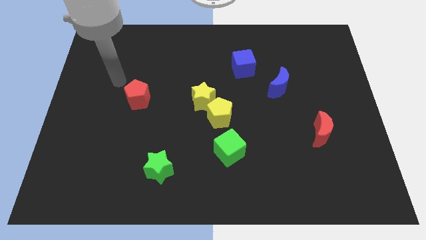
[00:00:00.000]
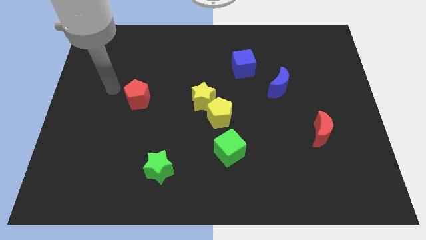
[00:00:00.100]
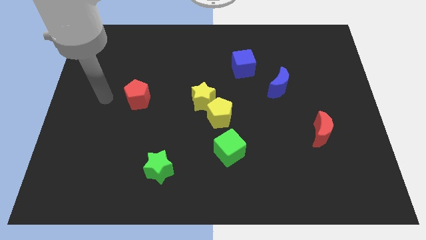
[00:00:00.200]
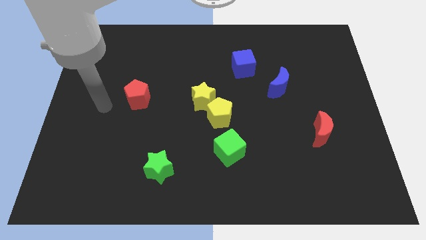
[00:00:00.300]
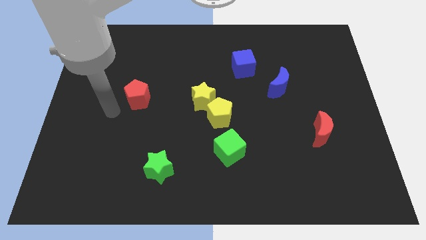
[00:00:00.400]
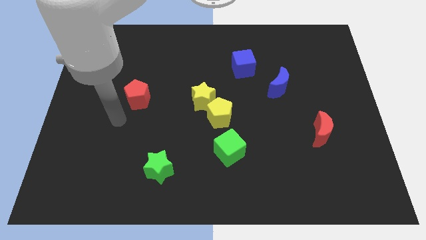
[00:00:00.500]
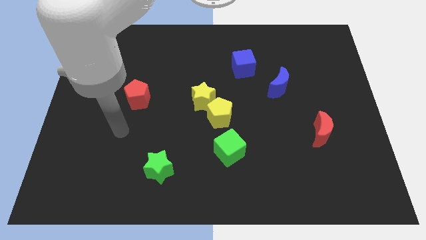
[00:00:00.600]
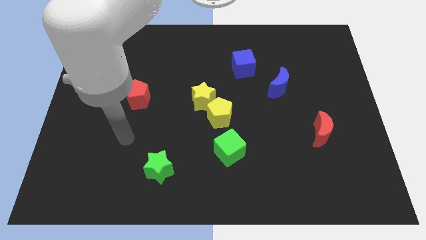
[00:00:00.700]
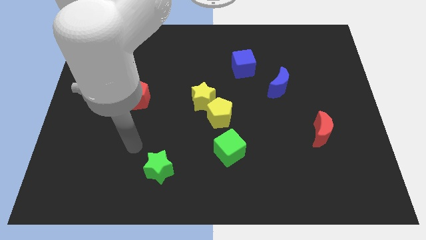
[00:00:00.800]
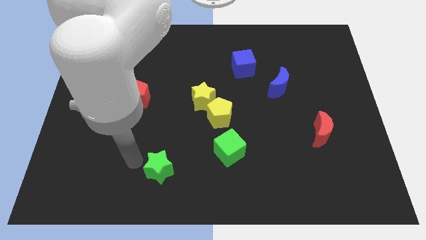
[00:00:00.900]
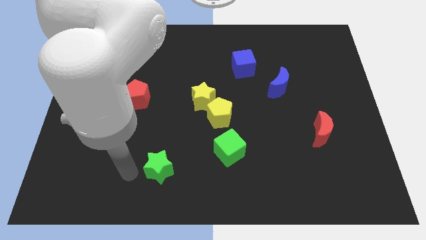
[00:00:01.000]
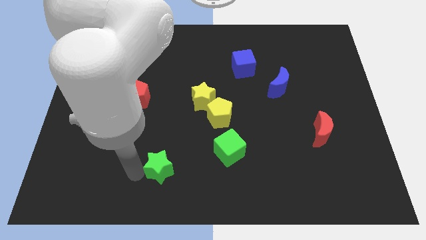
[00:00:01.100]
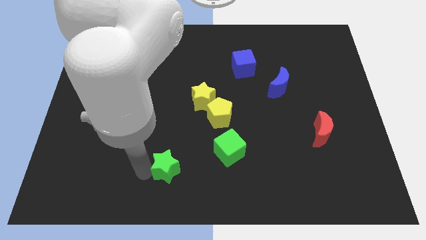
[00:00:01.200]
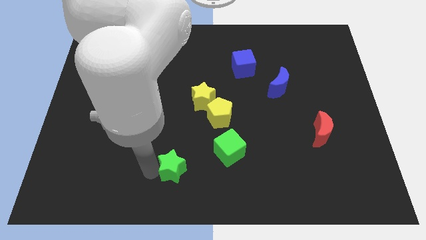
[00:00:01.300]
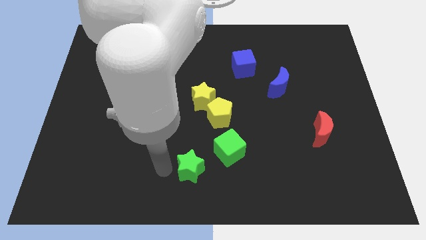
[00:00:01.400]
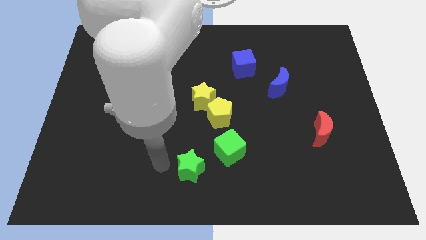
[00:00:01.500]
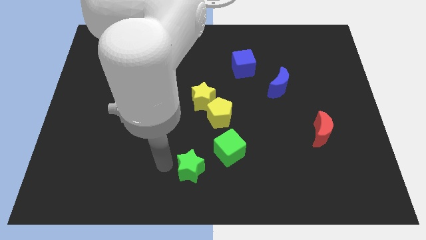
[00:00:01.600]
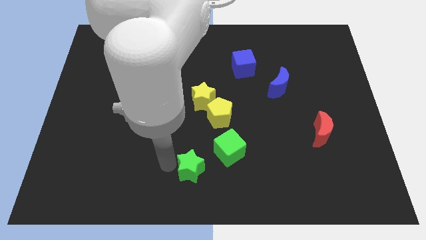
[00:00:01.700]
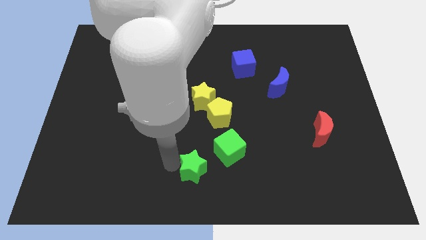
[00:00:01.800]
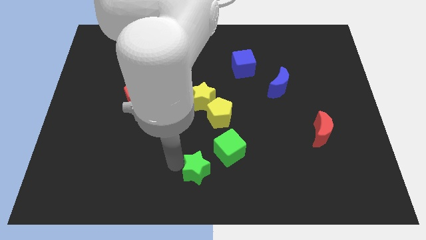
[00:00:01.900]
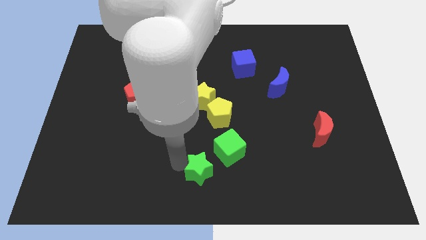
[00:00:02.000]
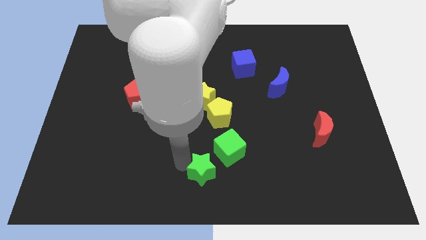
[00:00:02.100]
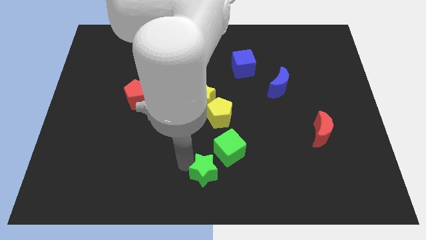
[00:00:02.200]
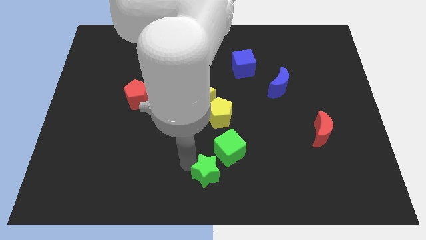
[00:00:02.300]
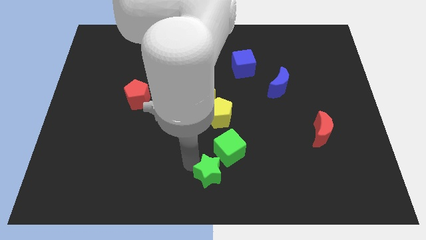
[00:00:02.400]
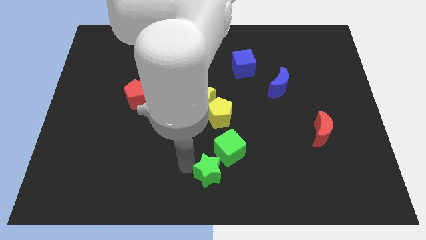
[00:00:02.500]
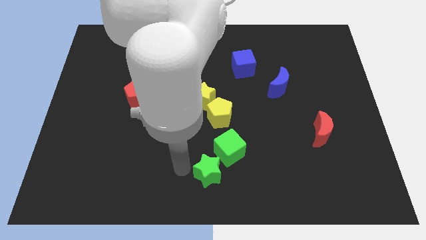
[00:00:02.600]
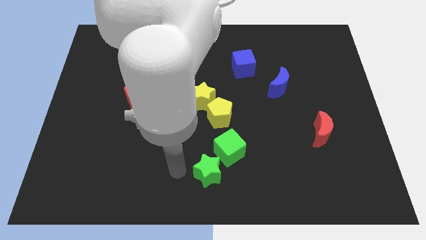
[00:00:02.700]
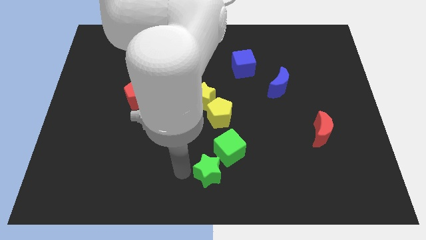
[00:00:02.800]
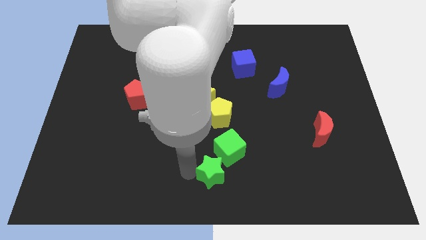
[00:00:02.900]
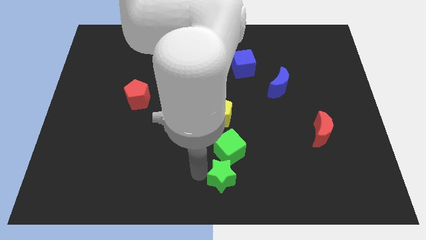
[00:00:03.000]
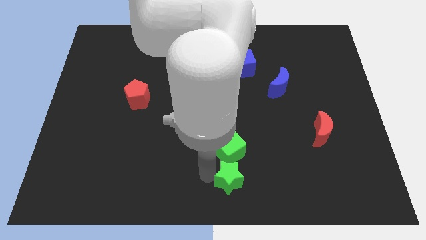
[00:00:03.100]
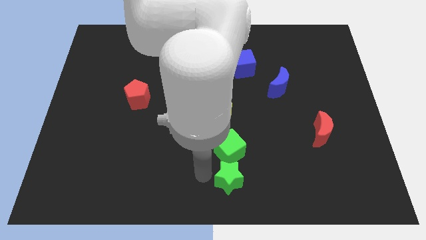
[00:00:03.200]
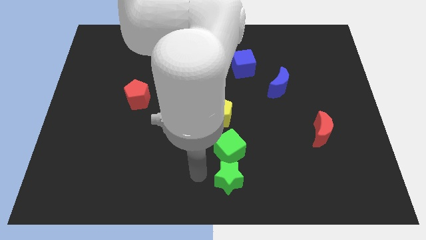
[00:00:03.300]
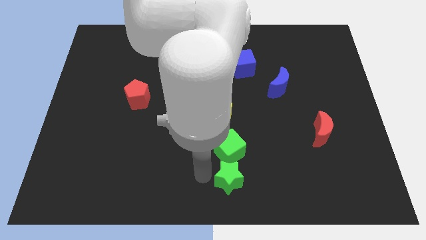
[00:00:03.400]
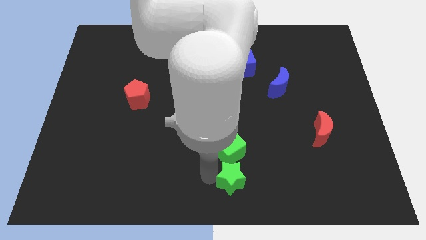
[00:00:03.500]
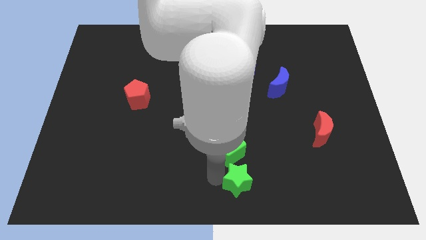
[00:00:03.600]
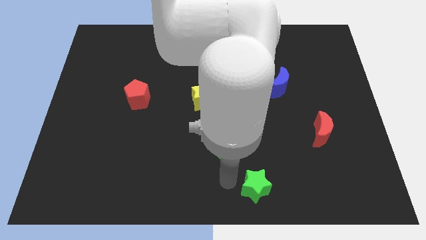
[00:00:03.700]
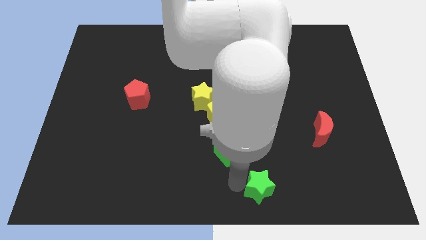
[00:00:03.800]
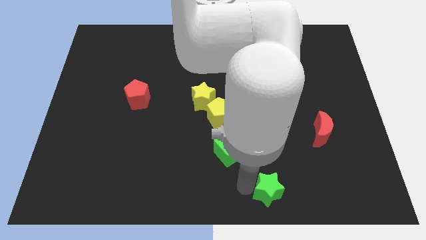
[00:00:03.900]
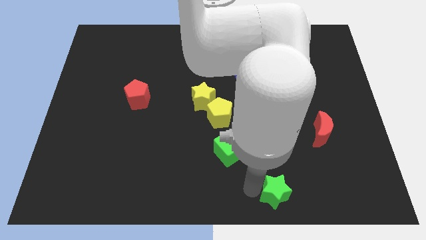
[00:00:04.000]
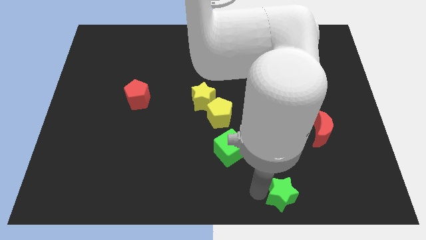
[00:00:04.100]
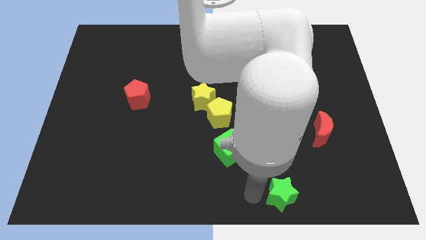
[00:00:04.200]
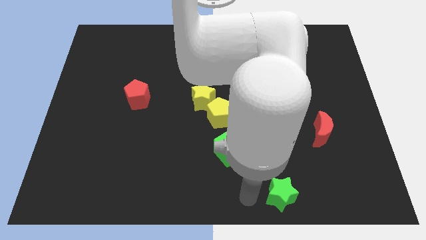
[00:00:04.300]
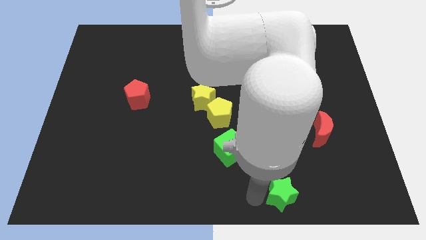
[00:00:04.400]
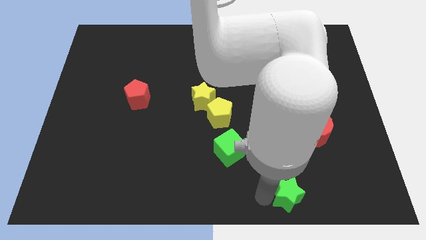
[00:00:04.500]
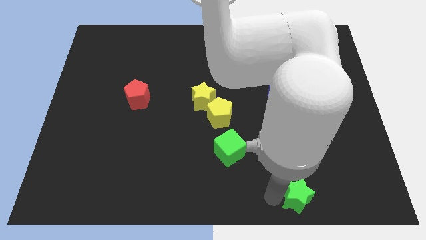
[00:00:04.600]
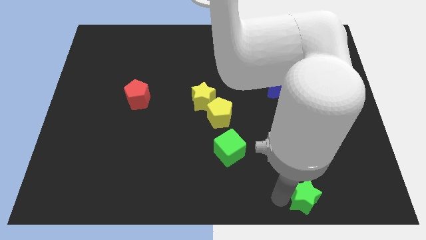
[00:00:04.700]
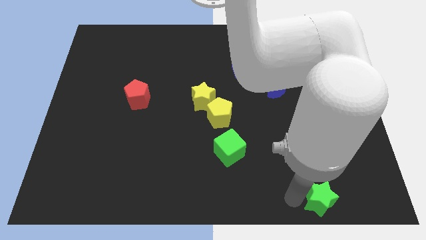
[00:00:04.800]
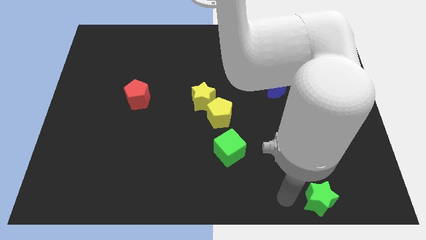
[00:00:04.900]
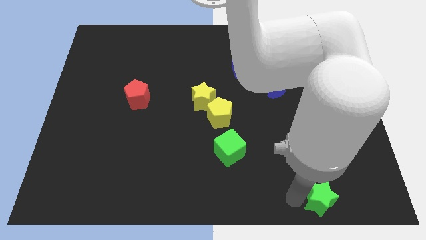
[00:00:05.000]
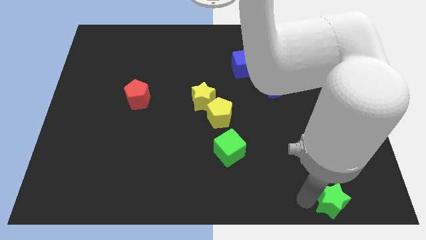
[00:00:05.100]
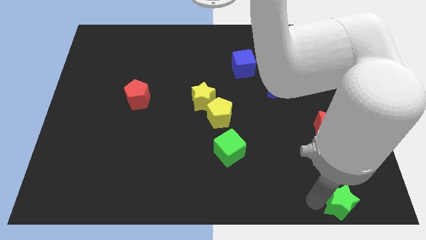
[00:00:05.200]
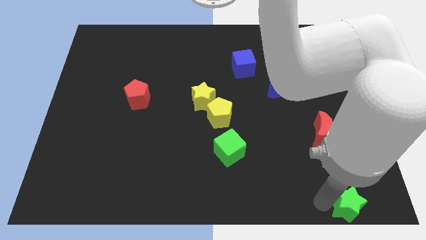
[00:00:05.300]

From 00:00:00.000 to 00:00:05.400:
push the green star to the lower right corner

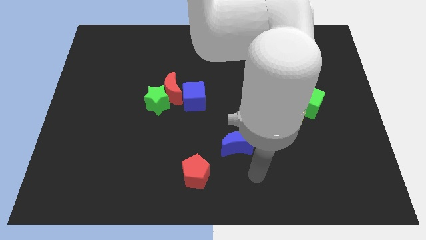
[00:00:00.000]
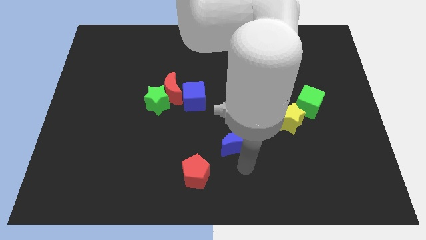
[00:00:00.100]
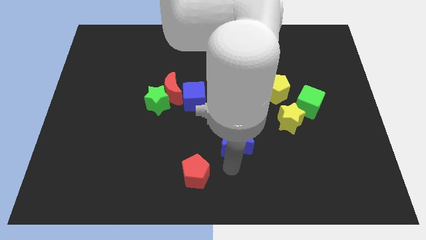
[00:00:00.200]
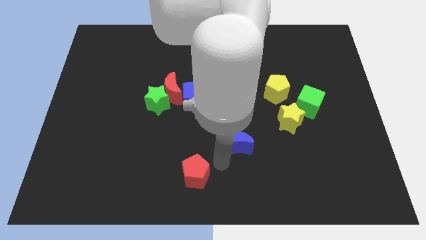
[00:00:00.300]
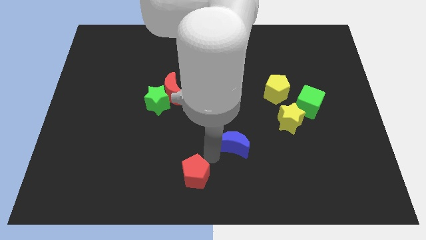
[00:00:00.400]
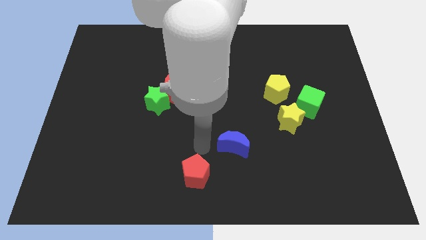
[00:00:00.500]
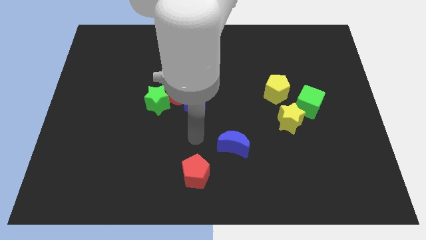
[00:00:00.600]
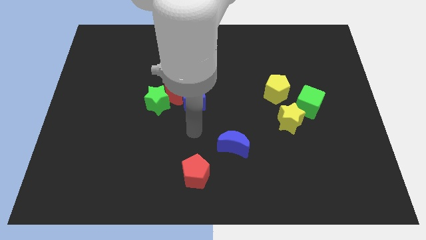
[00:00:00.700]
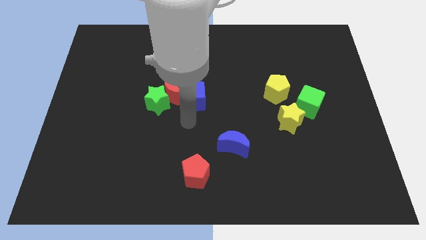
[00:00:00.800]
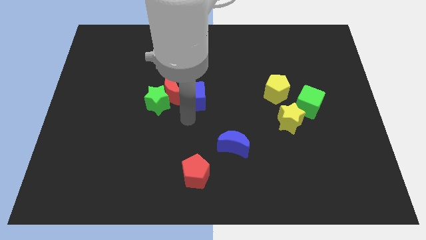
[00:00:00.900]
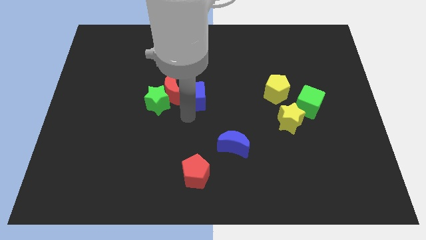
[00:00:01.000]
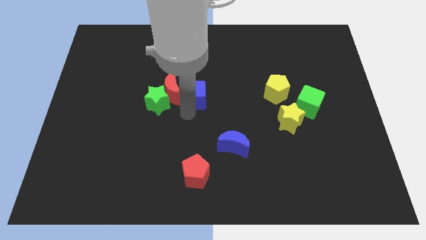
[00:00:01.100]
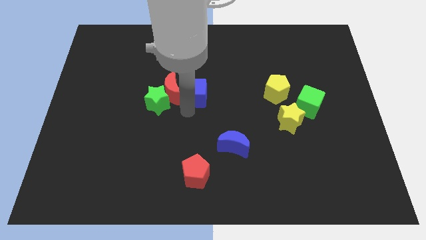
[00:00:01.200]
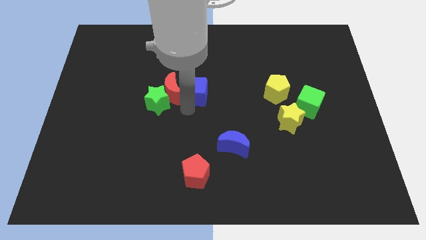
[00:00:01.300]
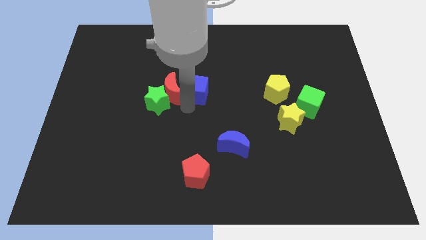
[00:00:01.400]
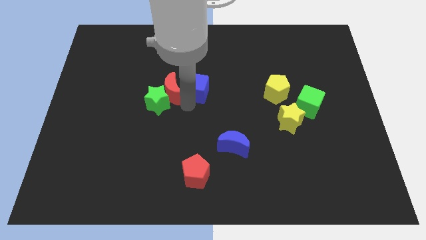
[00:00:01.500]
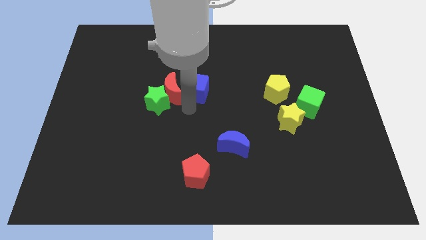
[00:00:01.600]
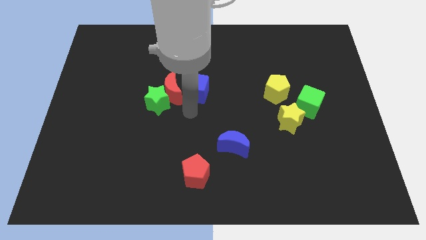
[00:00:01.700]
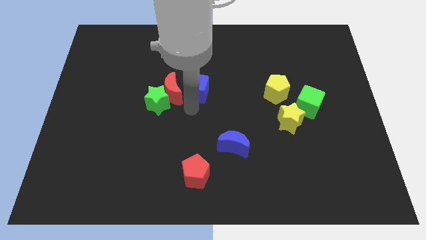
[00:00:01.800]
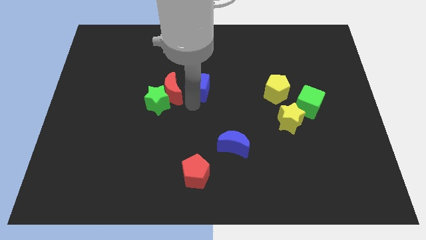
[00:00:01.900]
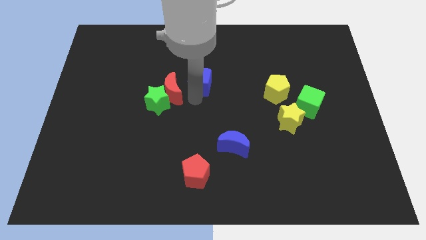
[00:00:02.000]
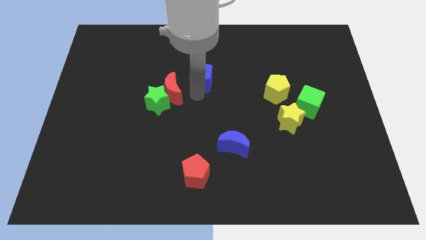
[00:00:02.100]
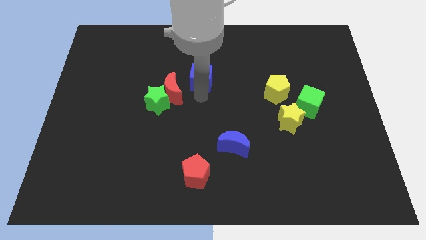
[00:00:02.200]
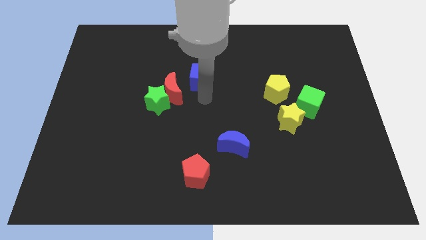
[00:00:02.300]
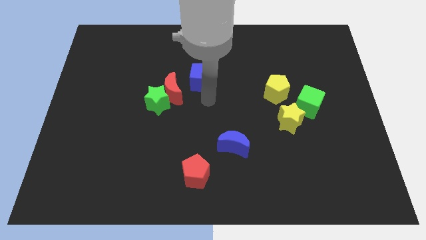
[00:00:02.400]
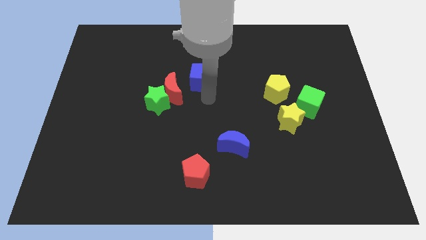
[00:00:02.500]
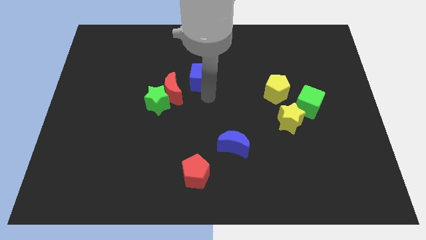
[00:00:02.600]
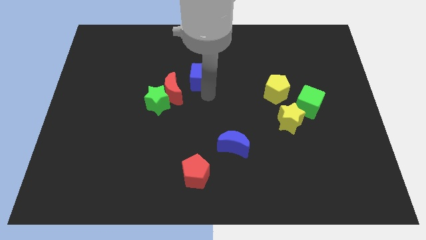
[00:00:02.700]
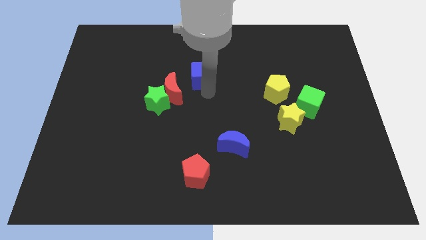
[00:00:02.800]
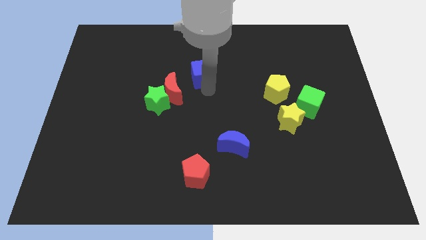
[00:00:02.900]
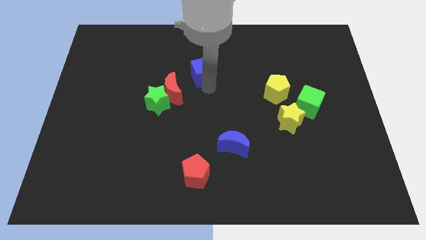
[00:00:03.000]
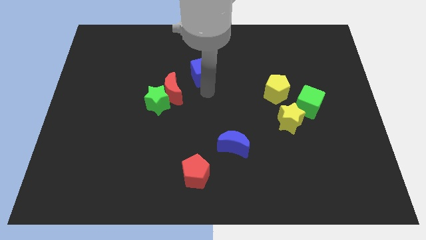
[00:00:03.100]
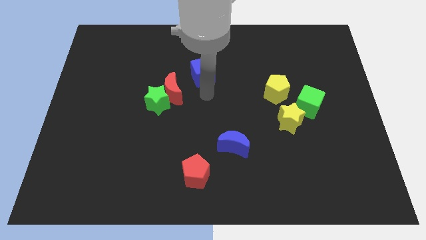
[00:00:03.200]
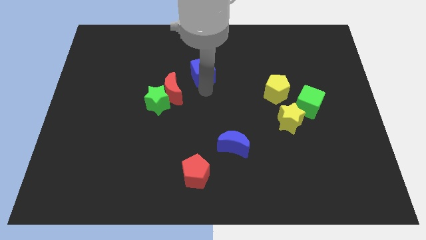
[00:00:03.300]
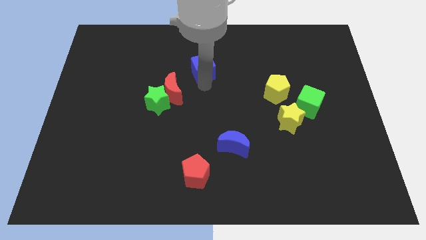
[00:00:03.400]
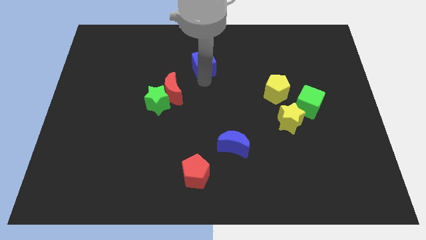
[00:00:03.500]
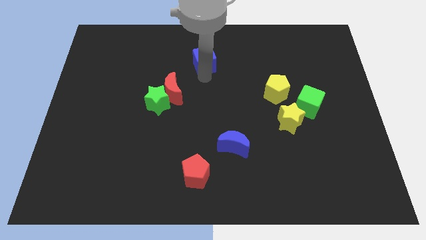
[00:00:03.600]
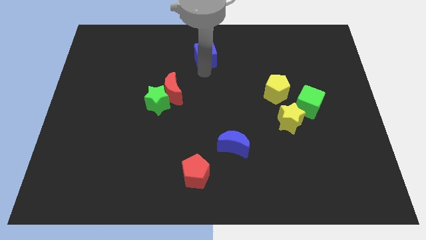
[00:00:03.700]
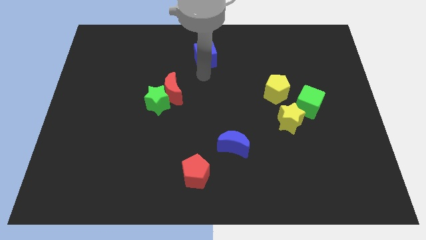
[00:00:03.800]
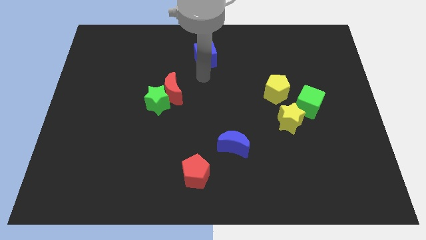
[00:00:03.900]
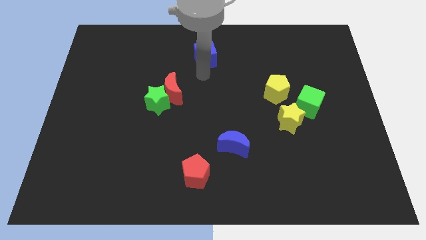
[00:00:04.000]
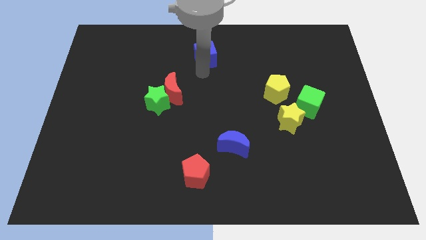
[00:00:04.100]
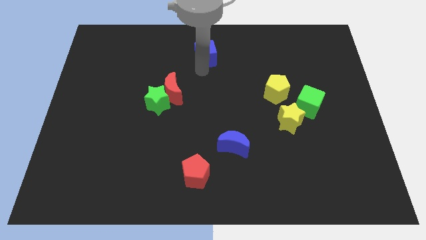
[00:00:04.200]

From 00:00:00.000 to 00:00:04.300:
move the blue cube to the towards your base
